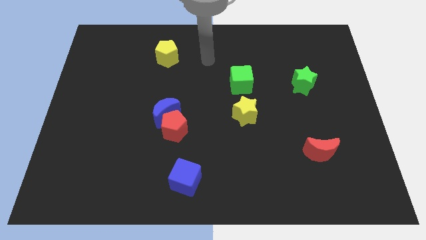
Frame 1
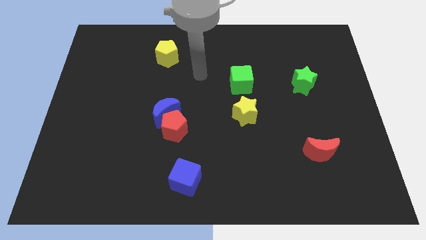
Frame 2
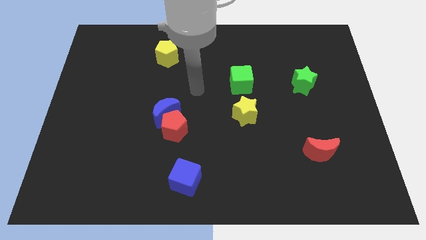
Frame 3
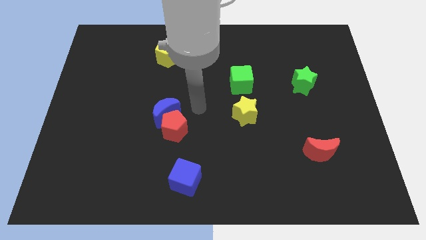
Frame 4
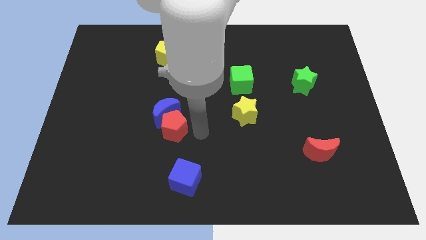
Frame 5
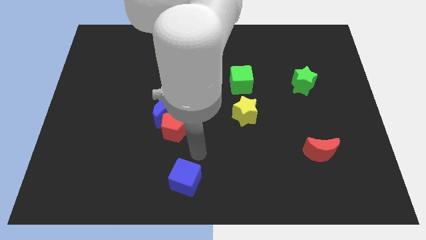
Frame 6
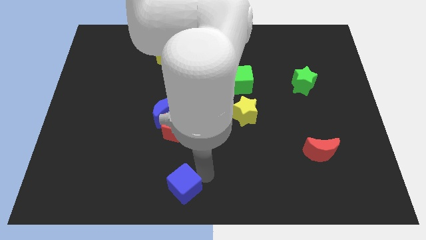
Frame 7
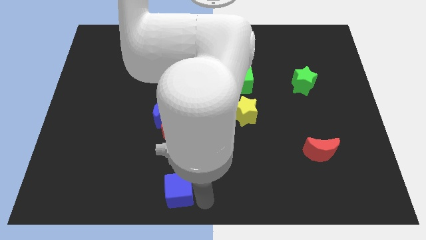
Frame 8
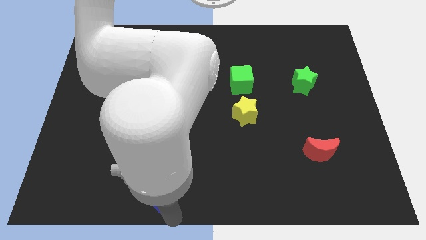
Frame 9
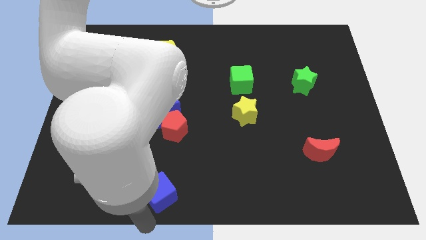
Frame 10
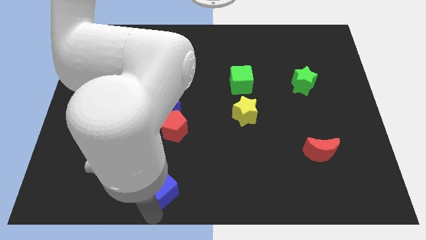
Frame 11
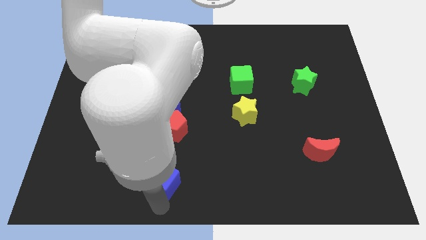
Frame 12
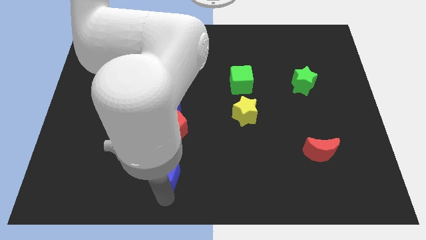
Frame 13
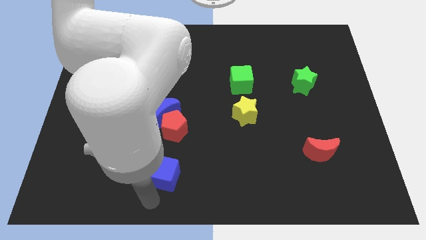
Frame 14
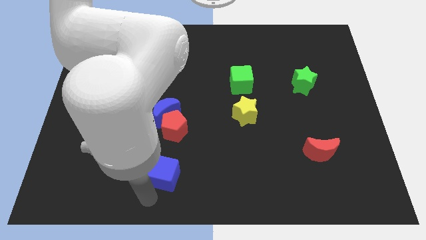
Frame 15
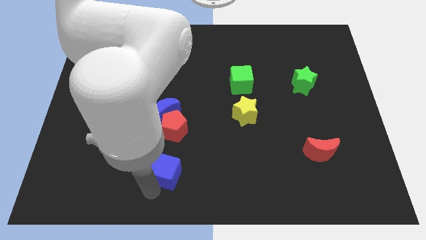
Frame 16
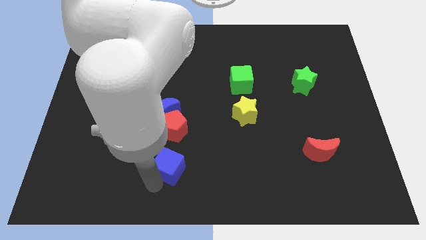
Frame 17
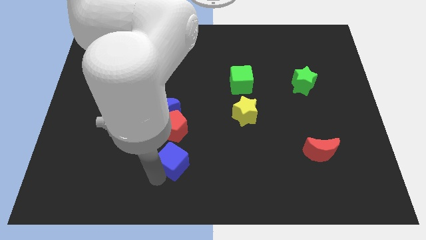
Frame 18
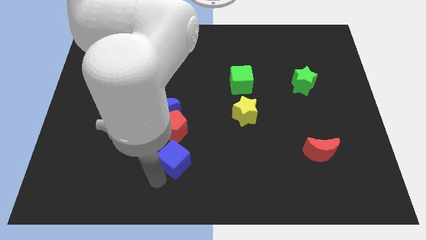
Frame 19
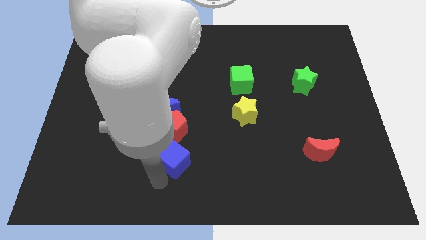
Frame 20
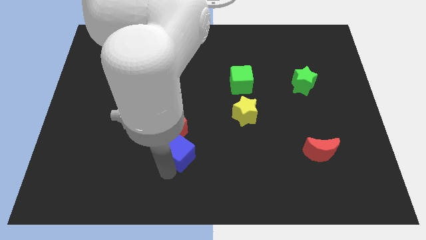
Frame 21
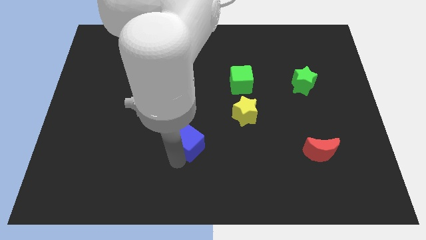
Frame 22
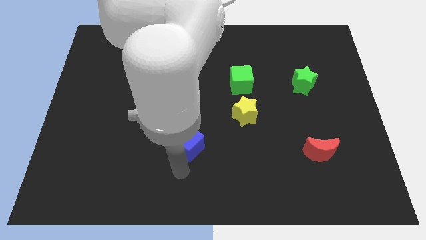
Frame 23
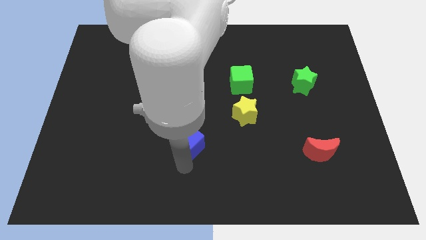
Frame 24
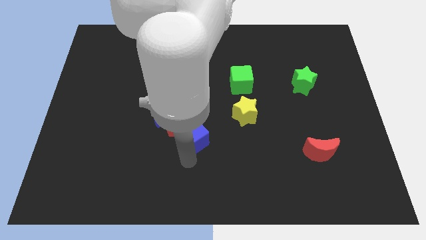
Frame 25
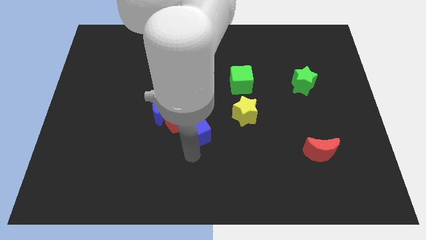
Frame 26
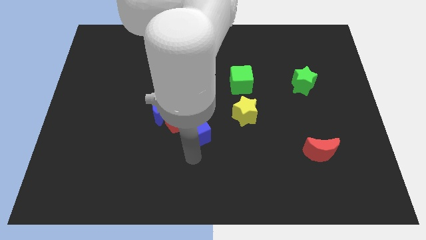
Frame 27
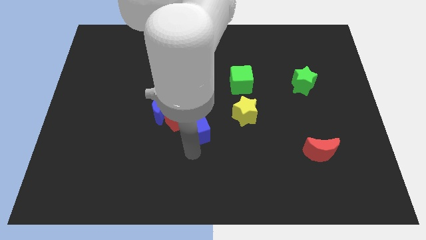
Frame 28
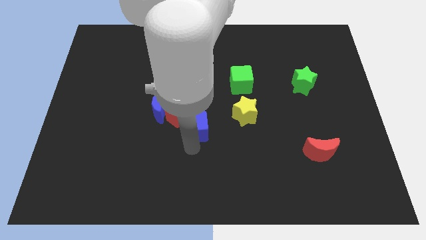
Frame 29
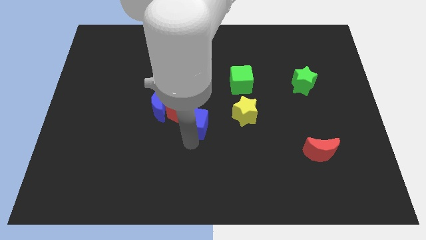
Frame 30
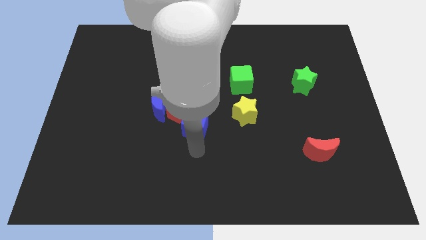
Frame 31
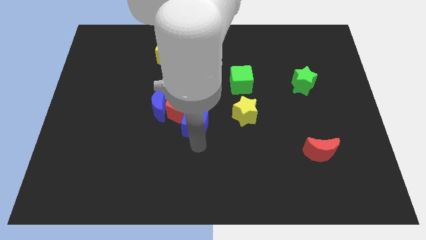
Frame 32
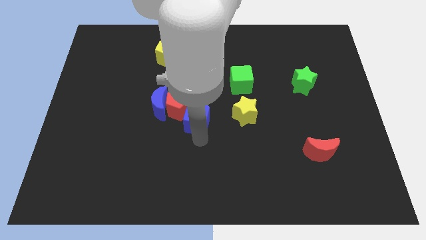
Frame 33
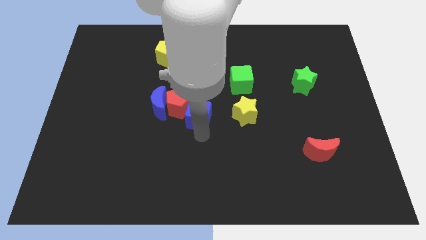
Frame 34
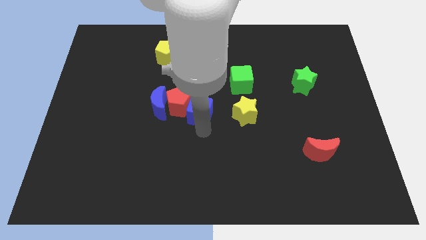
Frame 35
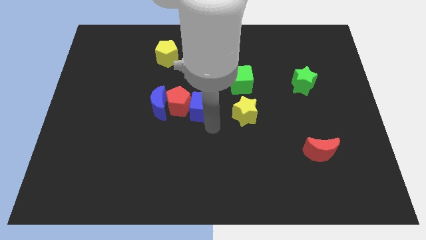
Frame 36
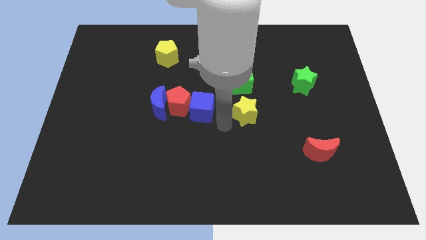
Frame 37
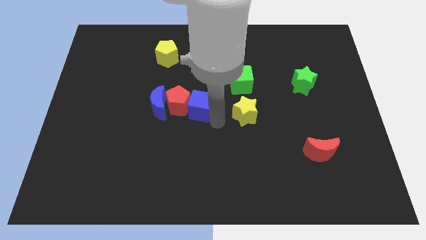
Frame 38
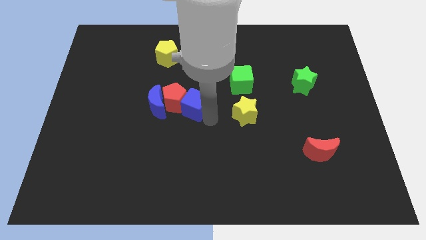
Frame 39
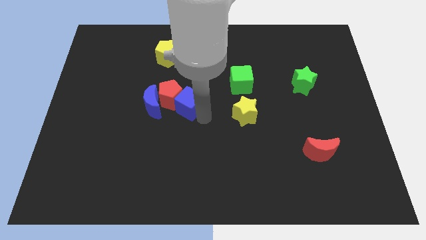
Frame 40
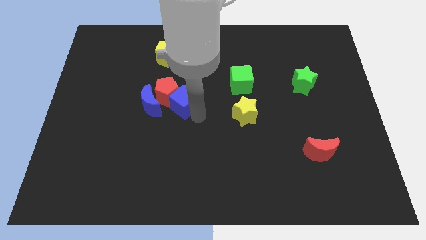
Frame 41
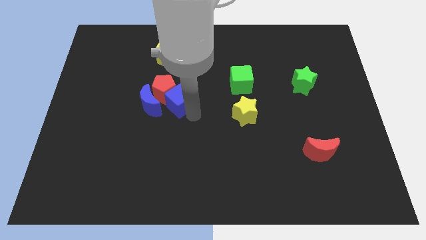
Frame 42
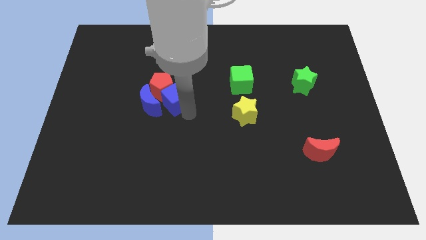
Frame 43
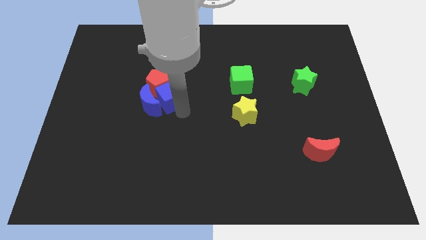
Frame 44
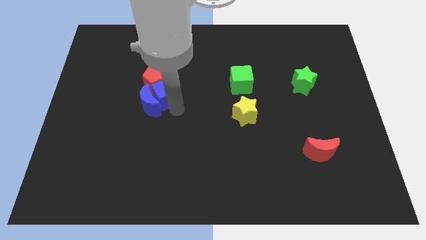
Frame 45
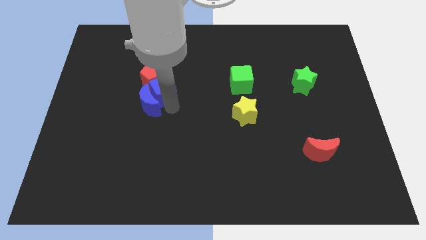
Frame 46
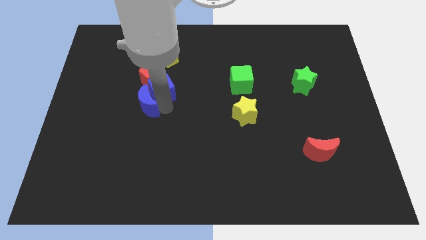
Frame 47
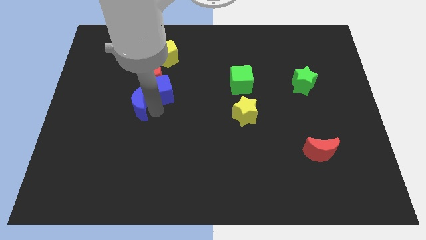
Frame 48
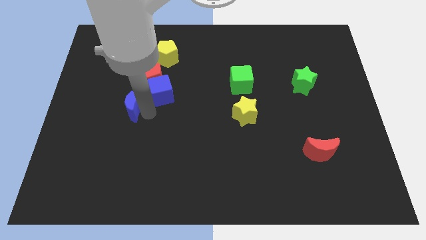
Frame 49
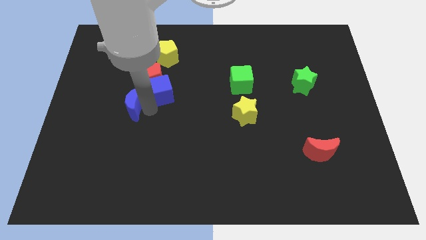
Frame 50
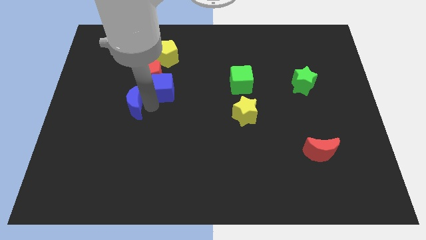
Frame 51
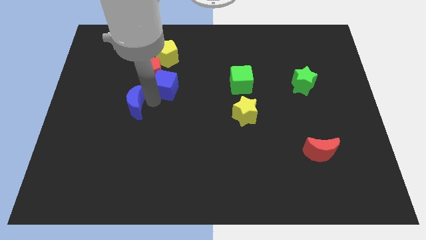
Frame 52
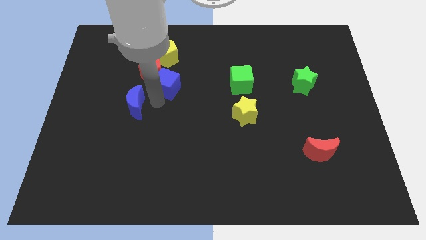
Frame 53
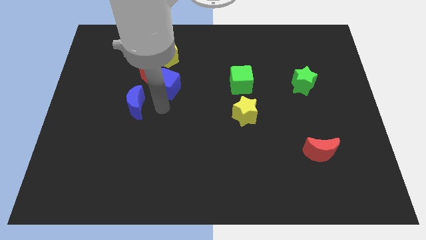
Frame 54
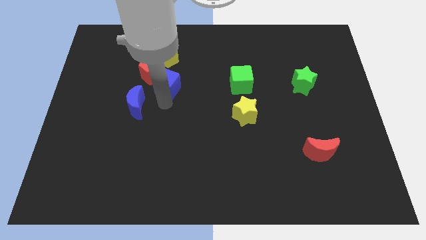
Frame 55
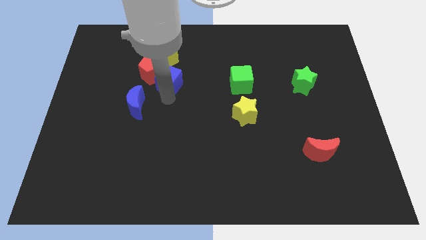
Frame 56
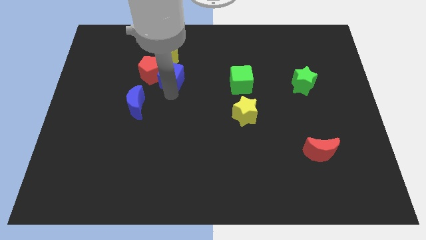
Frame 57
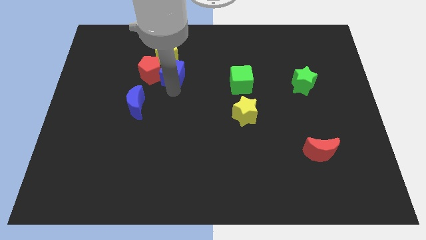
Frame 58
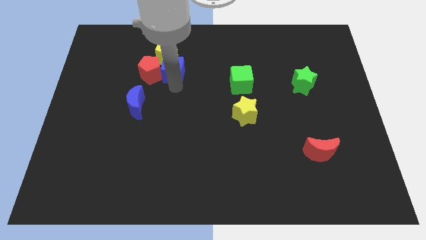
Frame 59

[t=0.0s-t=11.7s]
slide the blue cube close to the yellow pentagon

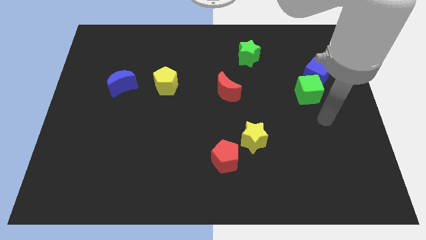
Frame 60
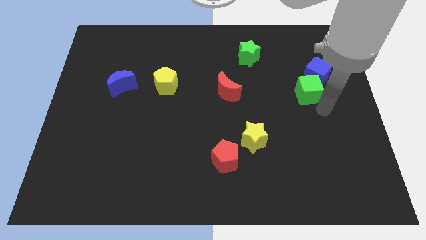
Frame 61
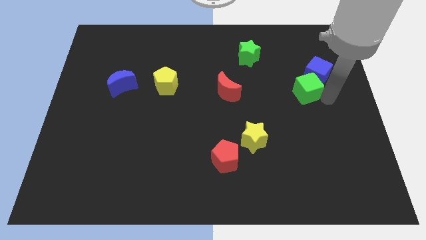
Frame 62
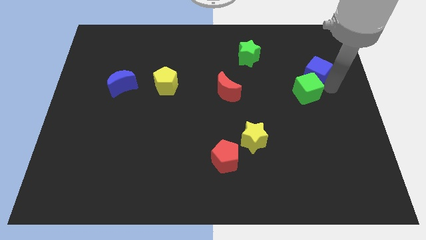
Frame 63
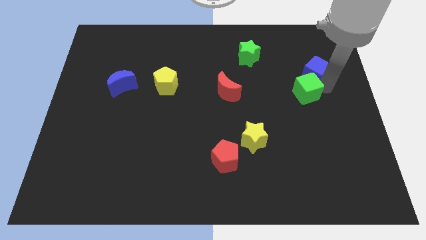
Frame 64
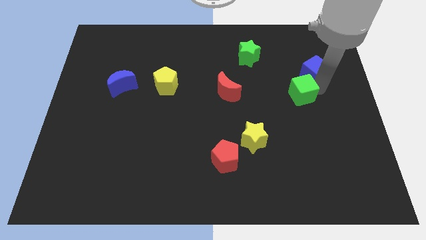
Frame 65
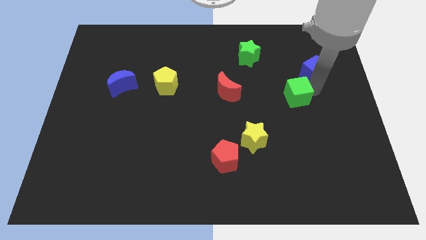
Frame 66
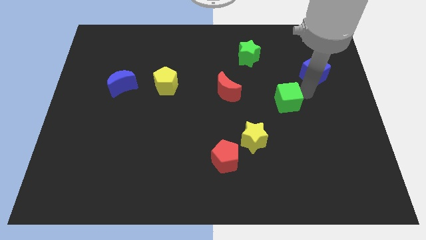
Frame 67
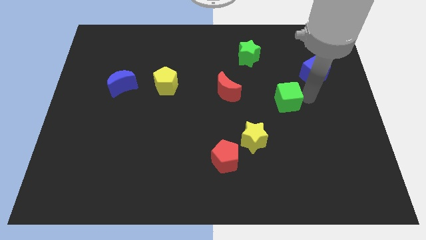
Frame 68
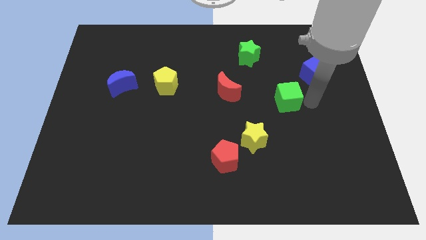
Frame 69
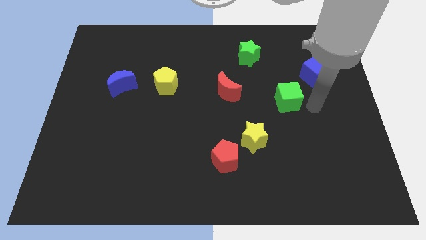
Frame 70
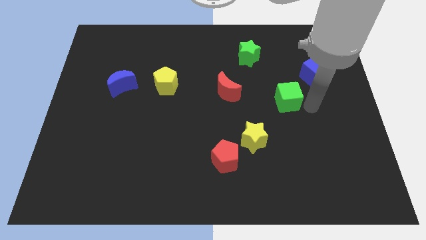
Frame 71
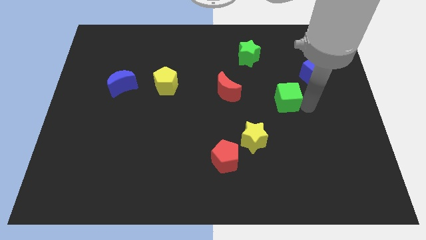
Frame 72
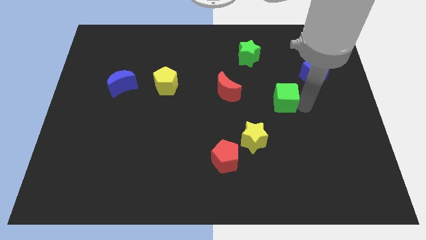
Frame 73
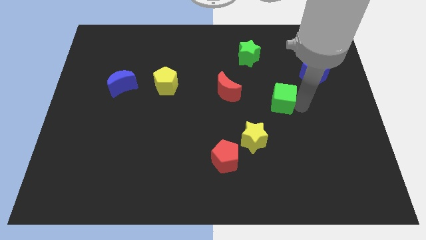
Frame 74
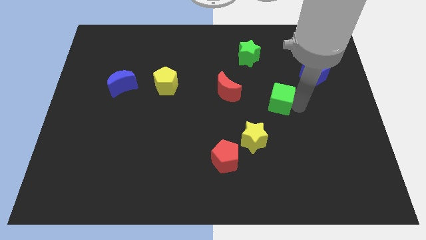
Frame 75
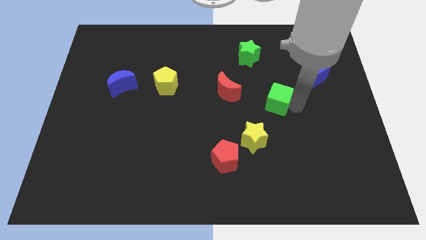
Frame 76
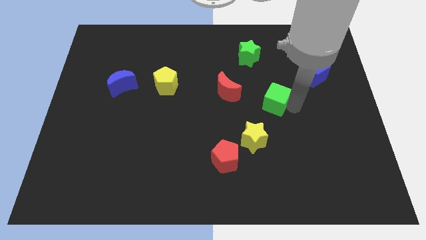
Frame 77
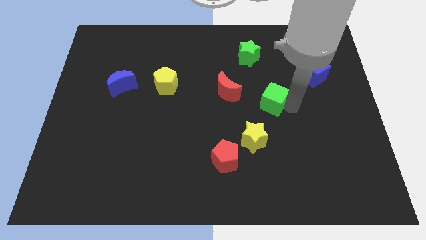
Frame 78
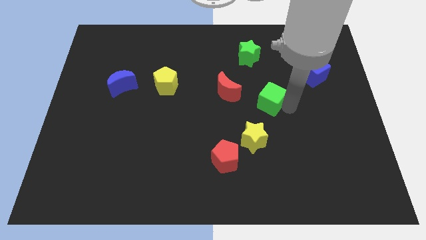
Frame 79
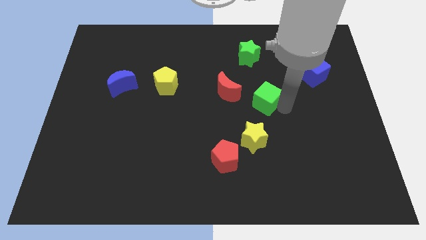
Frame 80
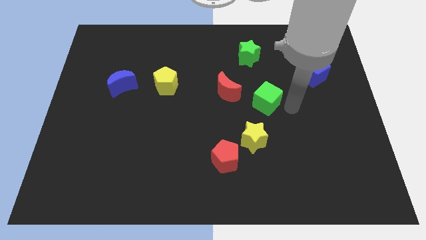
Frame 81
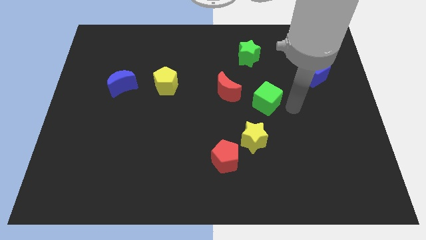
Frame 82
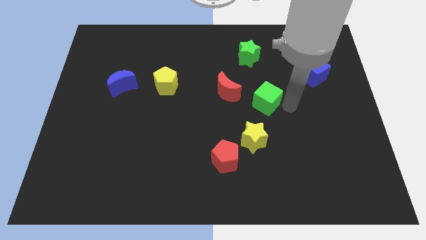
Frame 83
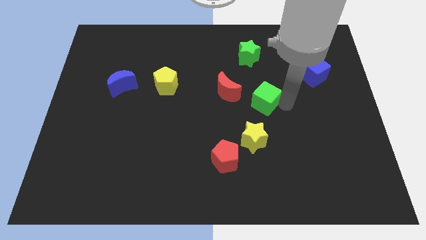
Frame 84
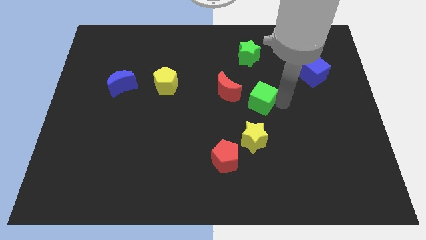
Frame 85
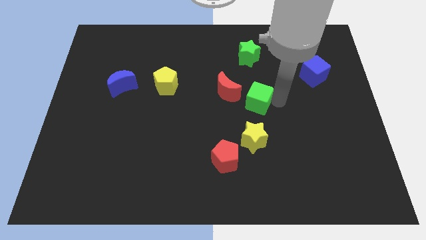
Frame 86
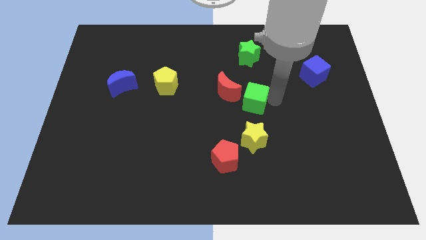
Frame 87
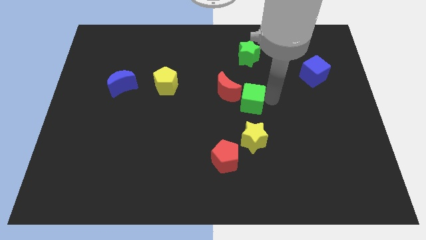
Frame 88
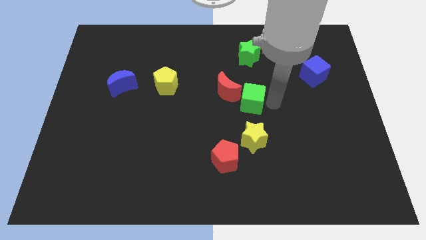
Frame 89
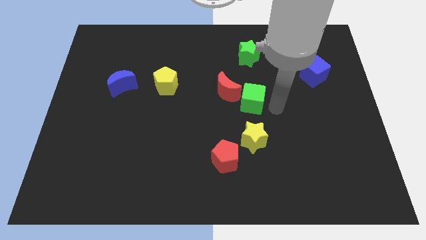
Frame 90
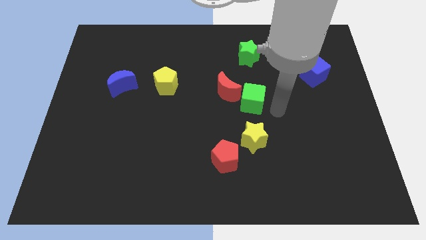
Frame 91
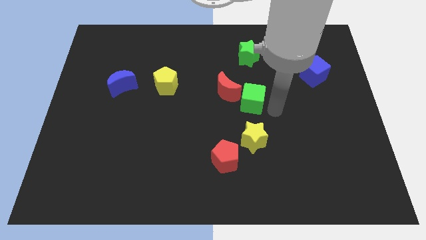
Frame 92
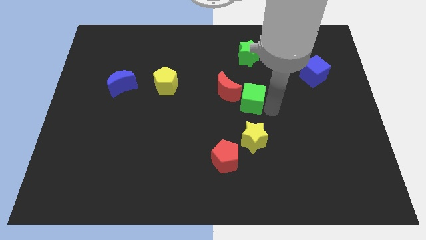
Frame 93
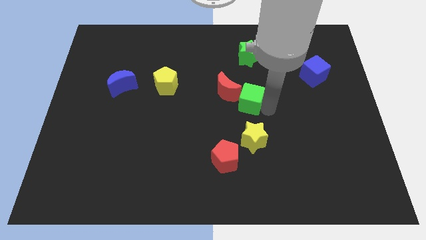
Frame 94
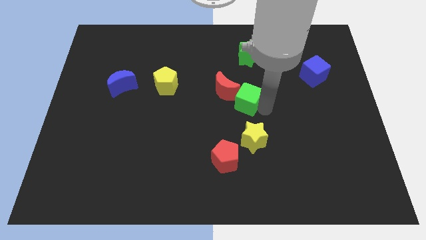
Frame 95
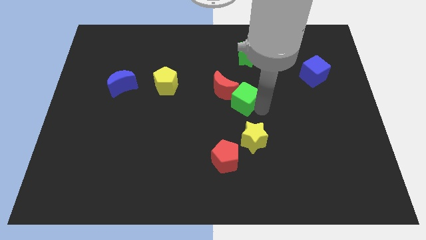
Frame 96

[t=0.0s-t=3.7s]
put the green cube towards the red moon
